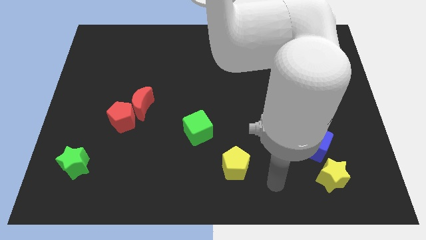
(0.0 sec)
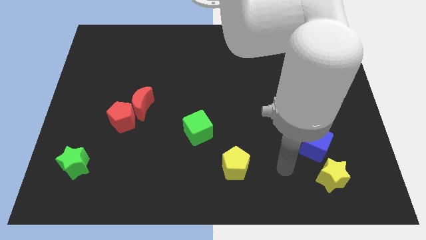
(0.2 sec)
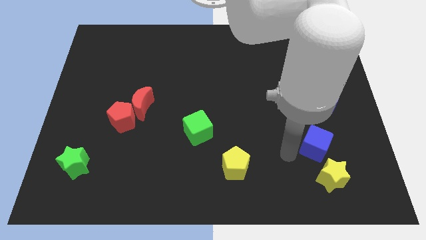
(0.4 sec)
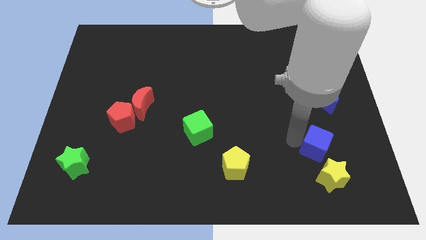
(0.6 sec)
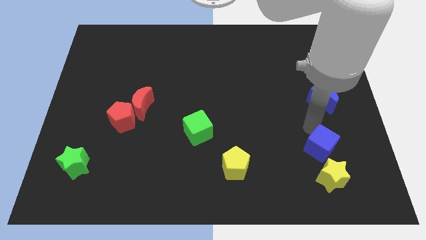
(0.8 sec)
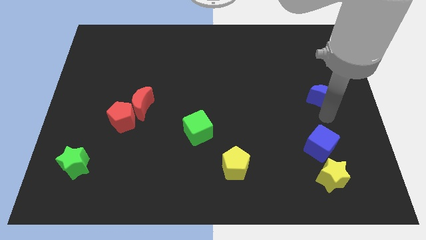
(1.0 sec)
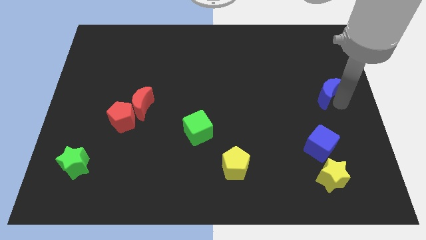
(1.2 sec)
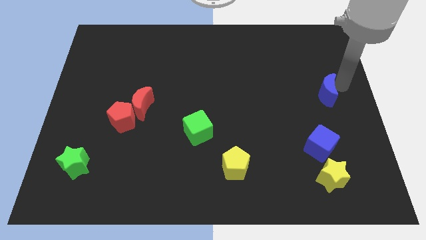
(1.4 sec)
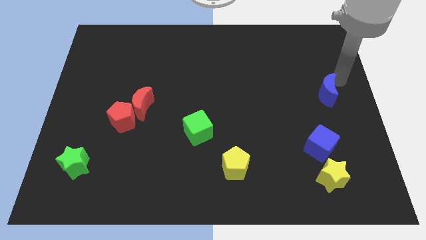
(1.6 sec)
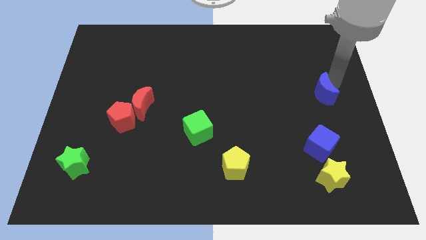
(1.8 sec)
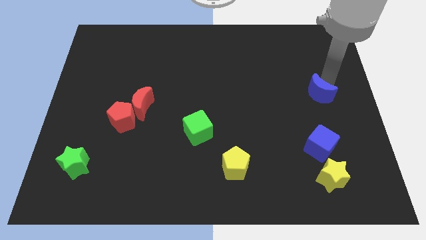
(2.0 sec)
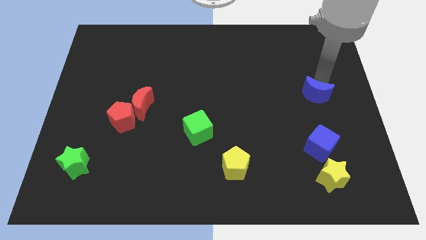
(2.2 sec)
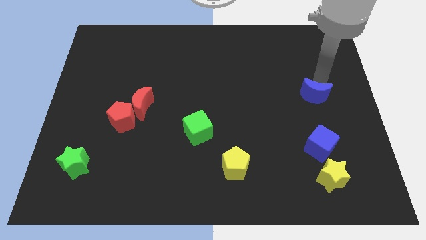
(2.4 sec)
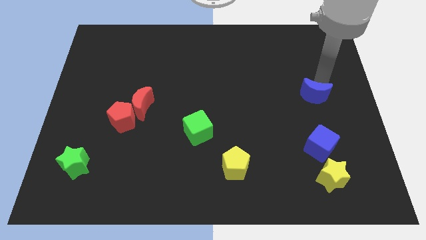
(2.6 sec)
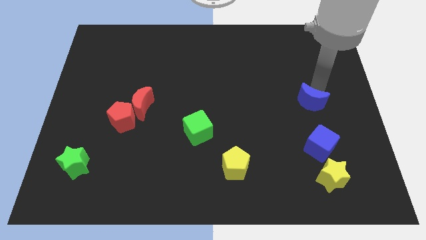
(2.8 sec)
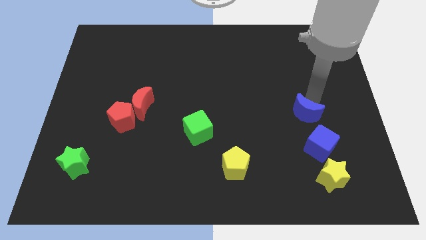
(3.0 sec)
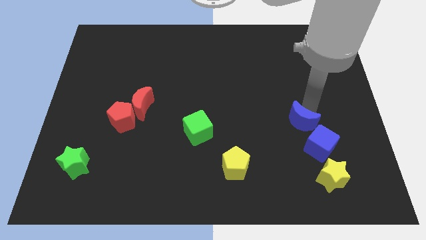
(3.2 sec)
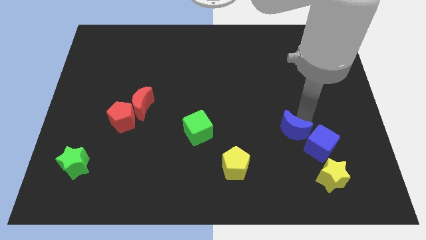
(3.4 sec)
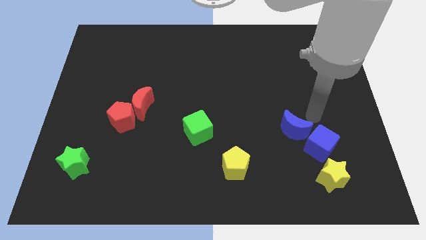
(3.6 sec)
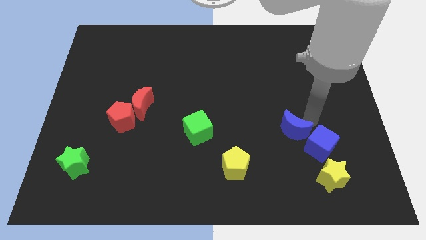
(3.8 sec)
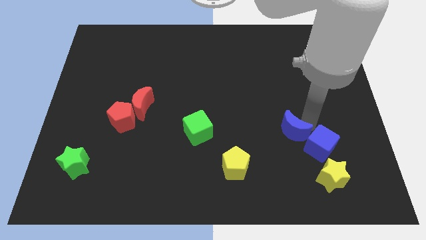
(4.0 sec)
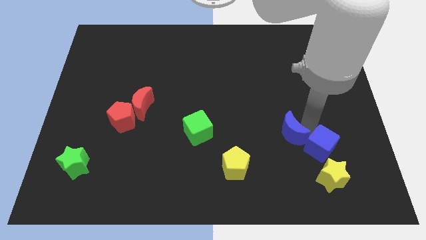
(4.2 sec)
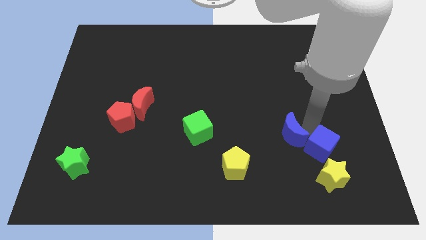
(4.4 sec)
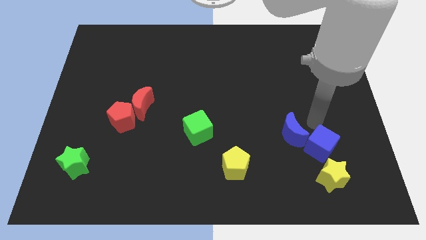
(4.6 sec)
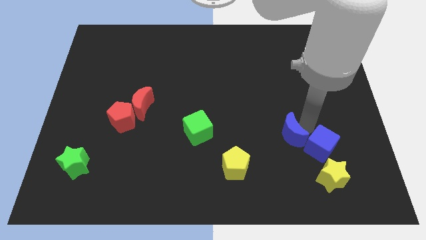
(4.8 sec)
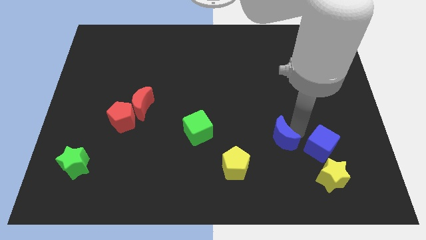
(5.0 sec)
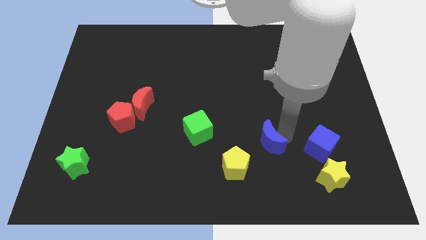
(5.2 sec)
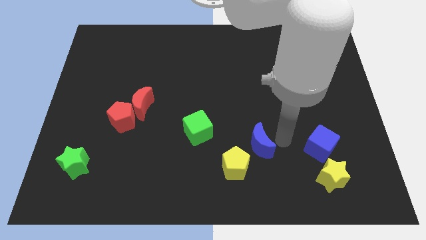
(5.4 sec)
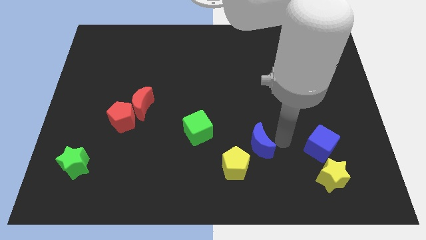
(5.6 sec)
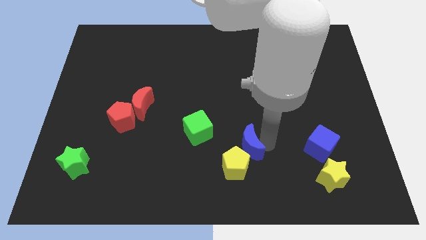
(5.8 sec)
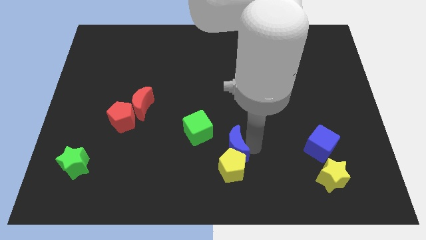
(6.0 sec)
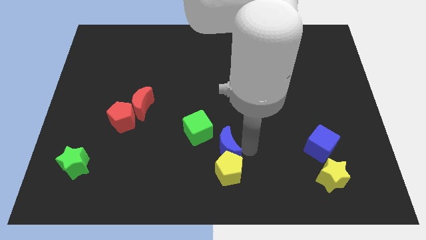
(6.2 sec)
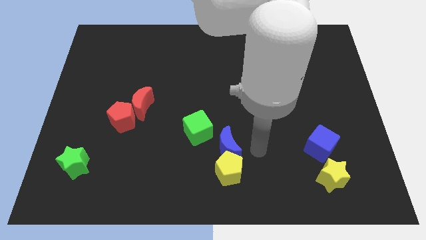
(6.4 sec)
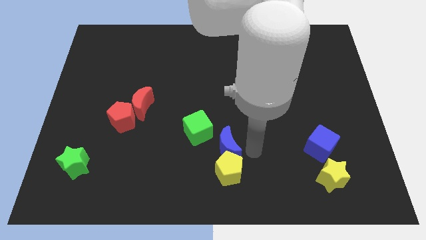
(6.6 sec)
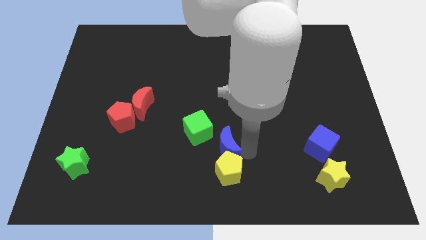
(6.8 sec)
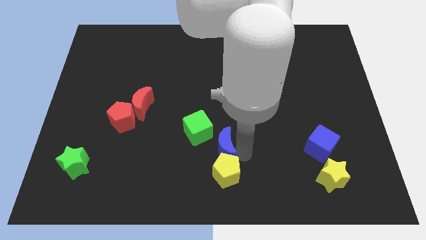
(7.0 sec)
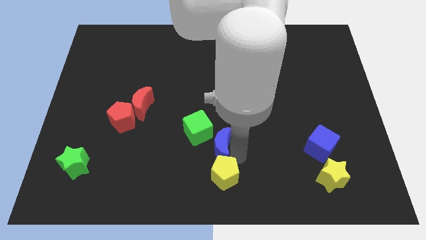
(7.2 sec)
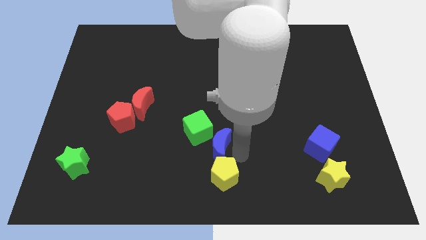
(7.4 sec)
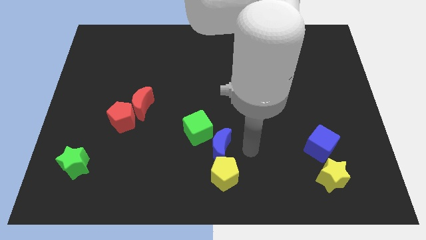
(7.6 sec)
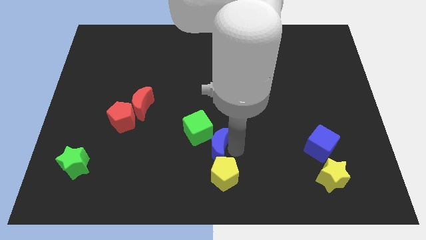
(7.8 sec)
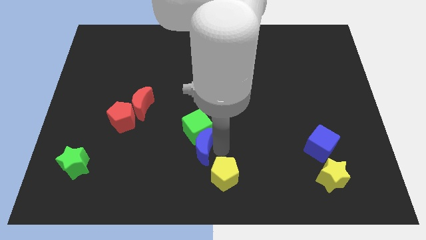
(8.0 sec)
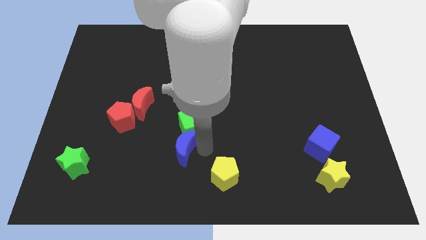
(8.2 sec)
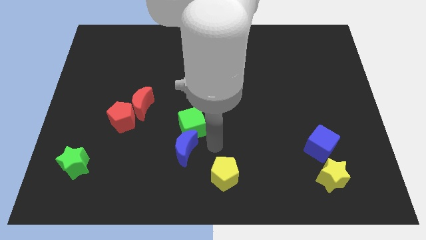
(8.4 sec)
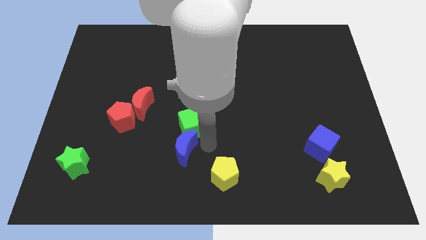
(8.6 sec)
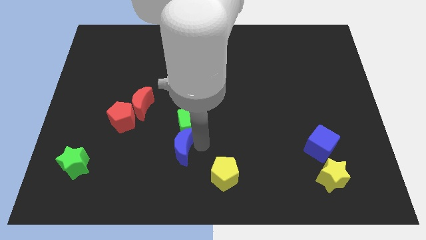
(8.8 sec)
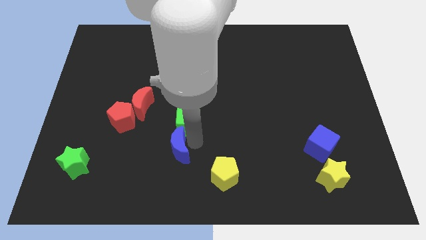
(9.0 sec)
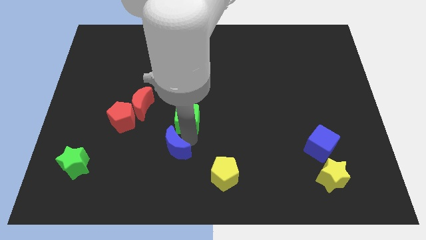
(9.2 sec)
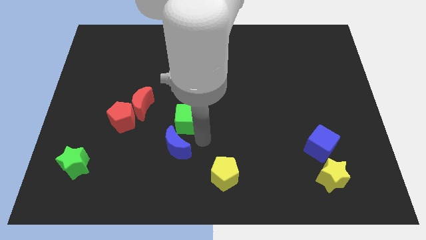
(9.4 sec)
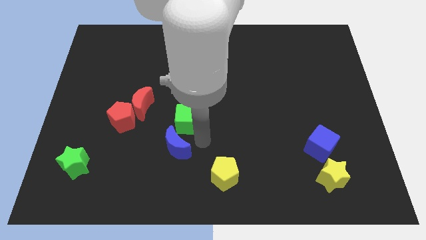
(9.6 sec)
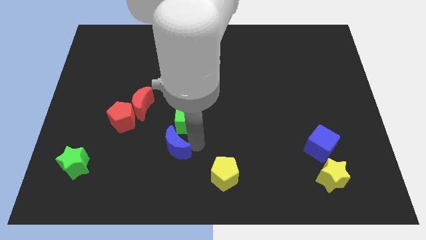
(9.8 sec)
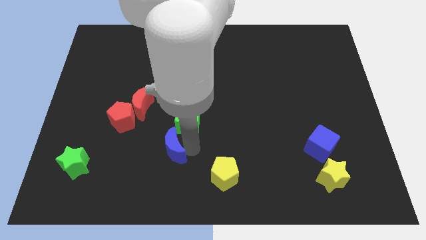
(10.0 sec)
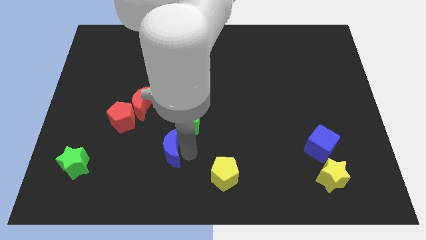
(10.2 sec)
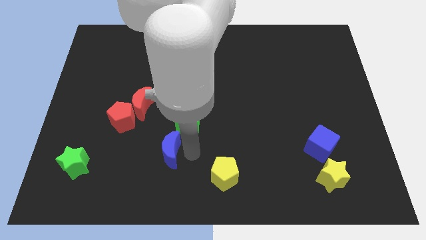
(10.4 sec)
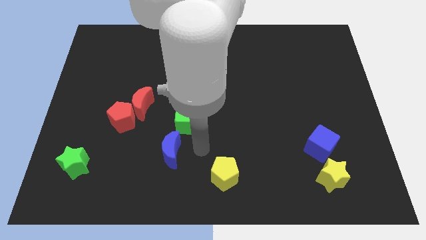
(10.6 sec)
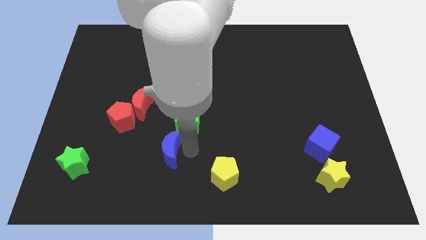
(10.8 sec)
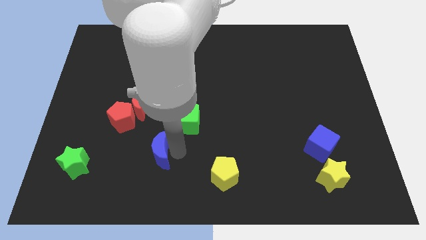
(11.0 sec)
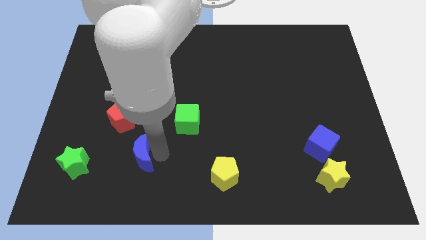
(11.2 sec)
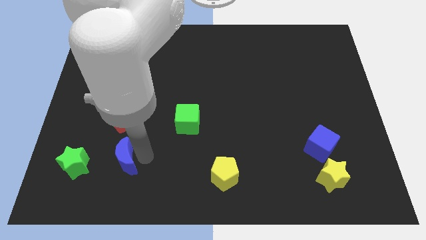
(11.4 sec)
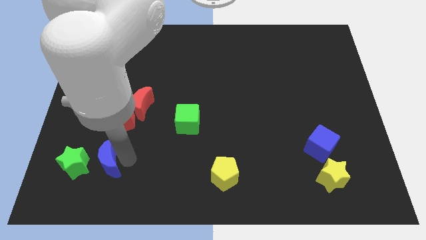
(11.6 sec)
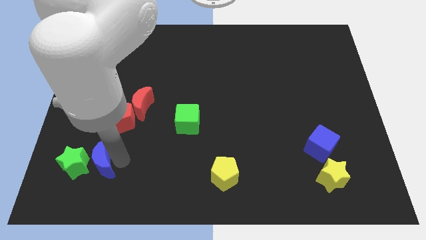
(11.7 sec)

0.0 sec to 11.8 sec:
move the blue moon towards the green star

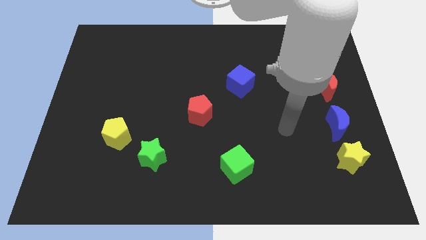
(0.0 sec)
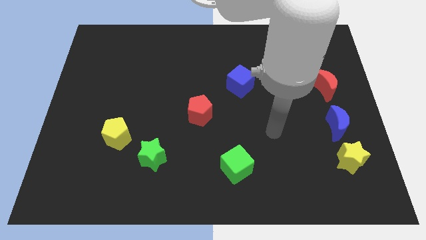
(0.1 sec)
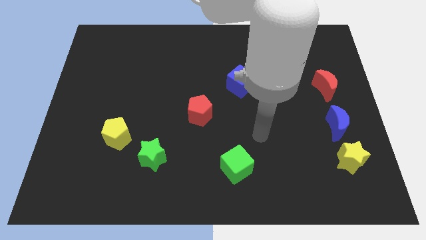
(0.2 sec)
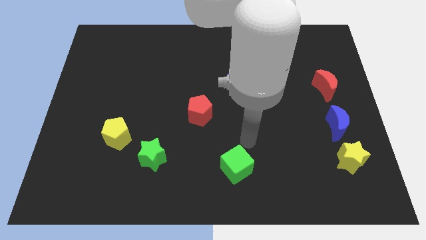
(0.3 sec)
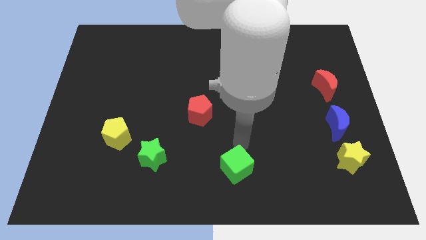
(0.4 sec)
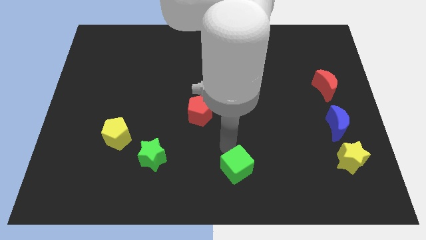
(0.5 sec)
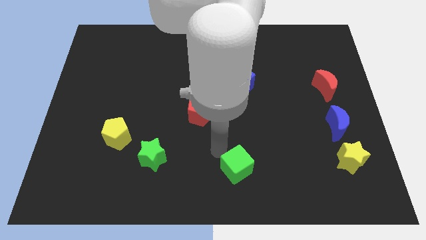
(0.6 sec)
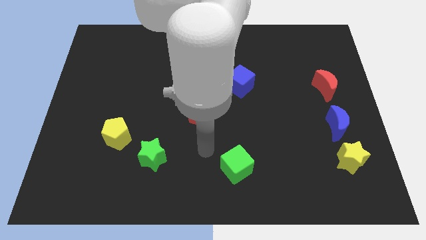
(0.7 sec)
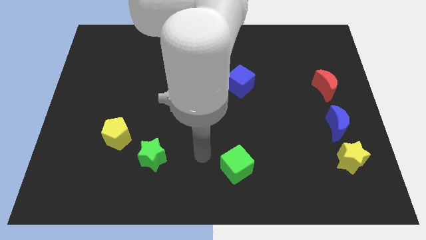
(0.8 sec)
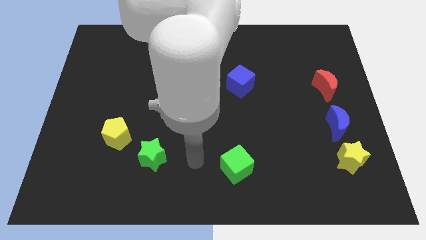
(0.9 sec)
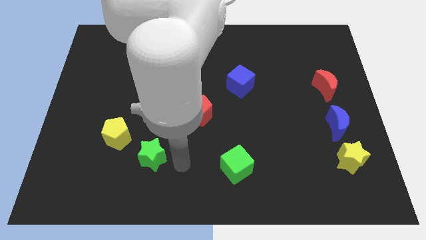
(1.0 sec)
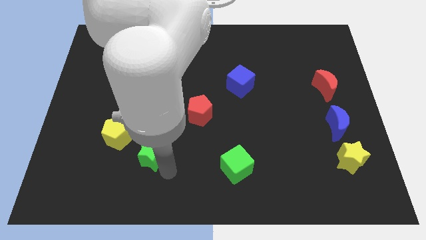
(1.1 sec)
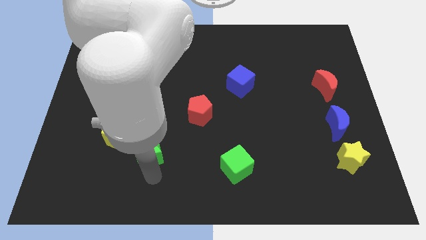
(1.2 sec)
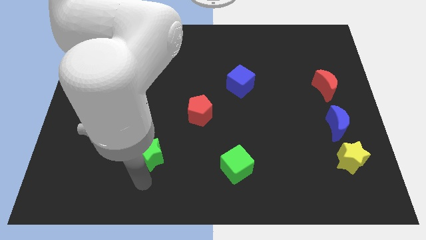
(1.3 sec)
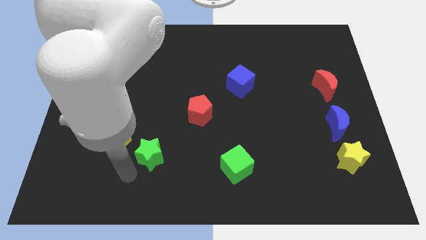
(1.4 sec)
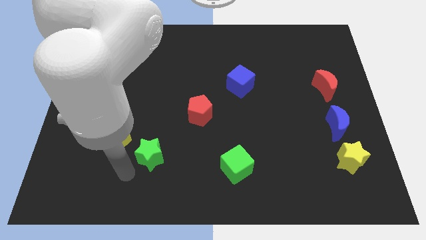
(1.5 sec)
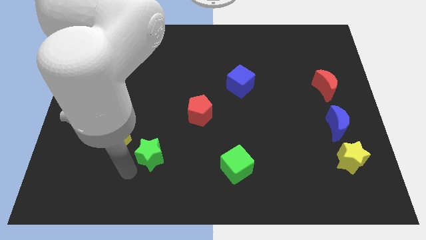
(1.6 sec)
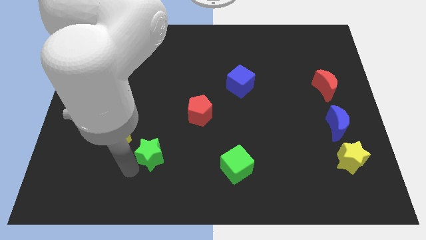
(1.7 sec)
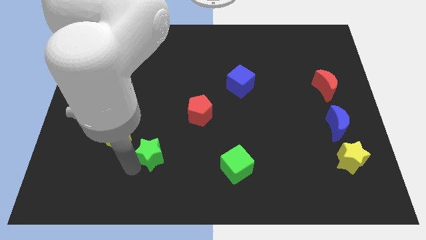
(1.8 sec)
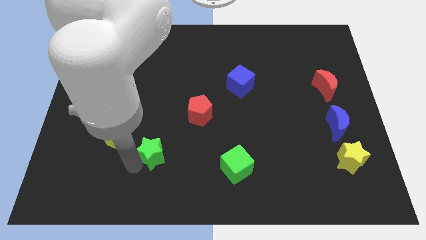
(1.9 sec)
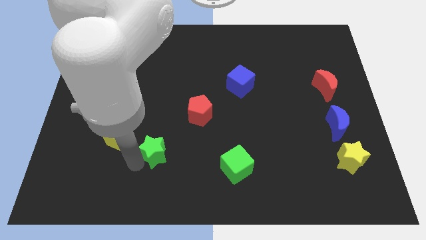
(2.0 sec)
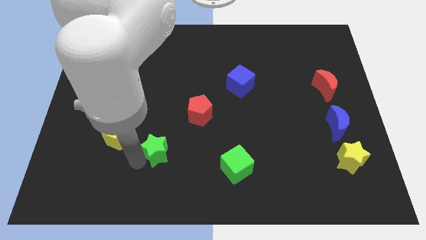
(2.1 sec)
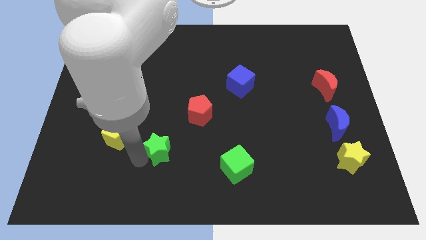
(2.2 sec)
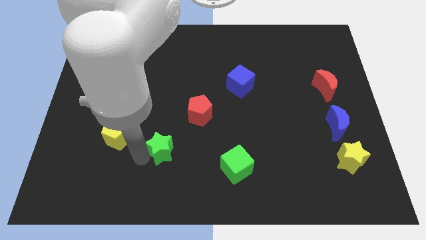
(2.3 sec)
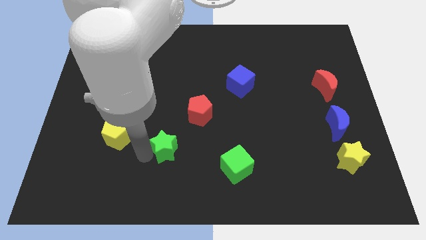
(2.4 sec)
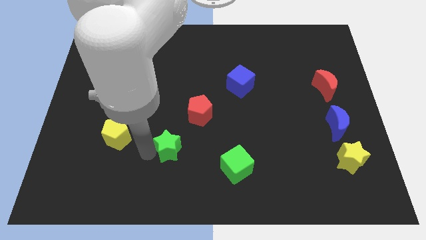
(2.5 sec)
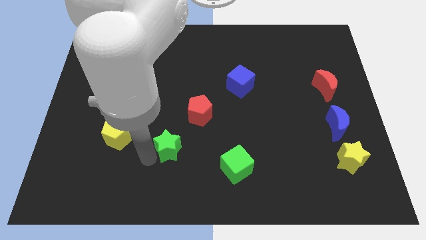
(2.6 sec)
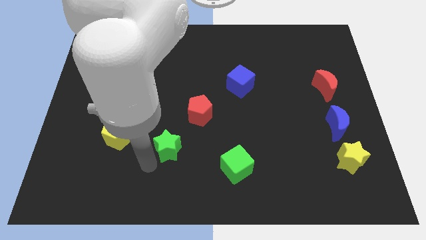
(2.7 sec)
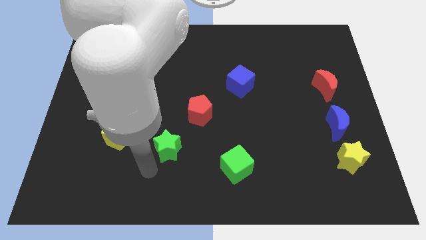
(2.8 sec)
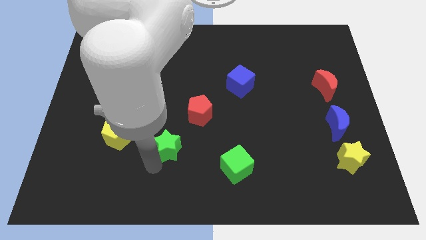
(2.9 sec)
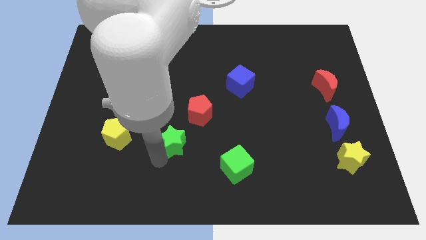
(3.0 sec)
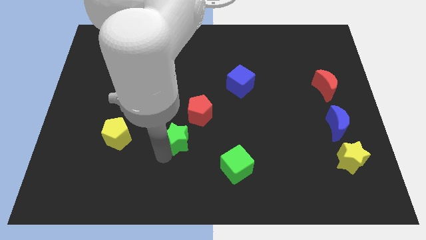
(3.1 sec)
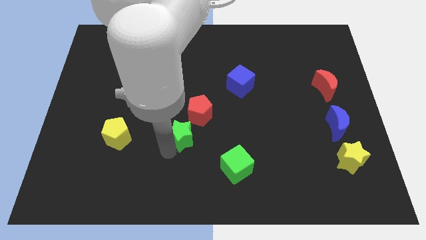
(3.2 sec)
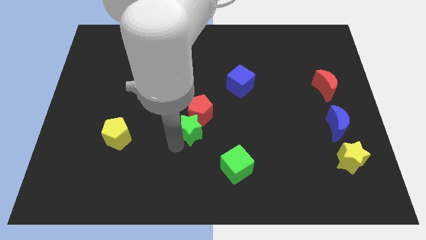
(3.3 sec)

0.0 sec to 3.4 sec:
push the green star to the red pentagon
